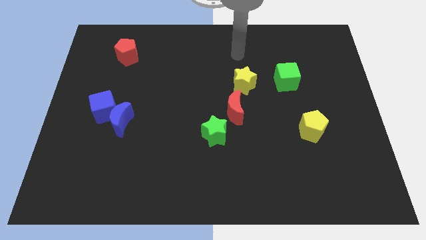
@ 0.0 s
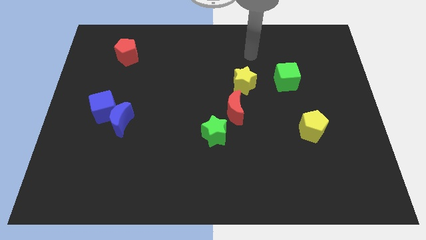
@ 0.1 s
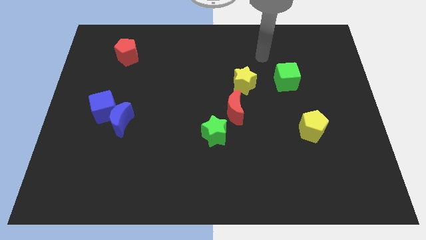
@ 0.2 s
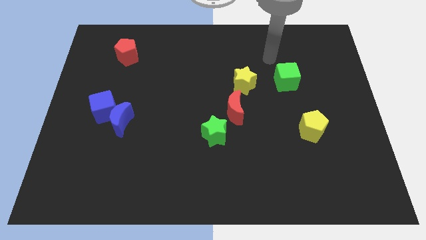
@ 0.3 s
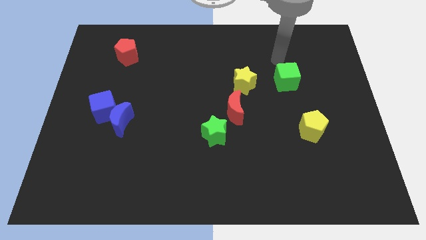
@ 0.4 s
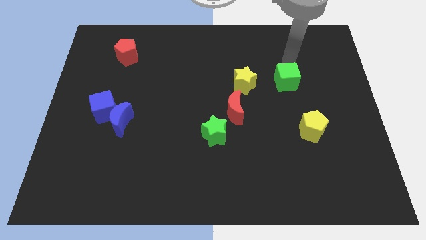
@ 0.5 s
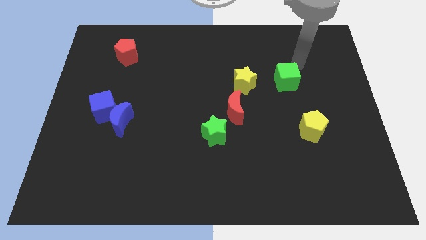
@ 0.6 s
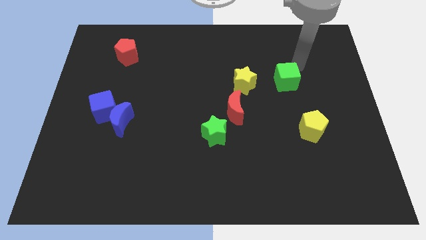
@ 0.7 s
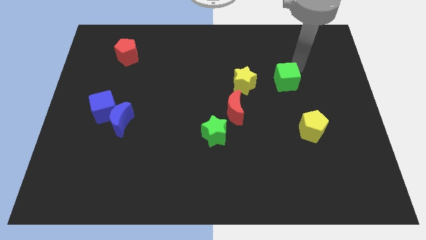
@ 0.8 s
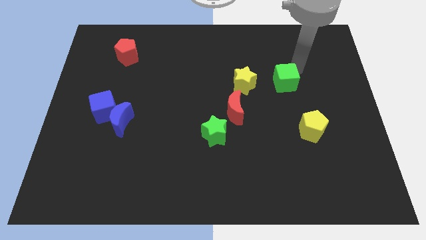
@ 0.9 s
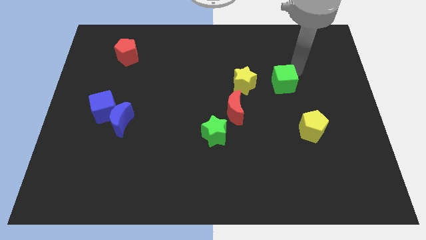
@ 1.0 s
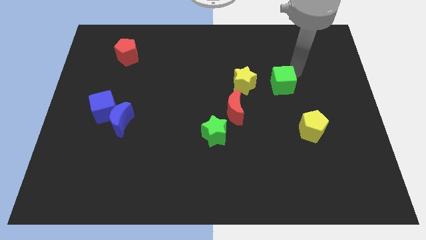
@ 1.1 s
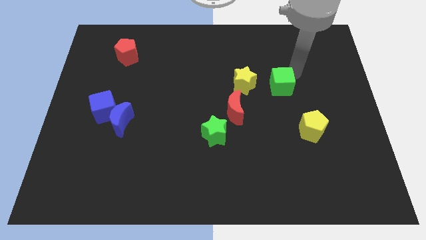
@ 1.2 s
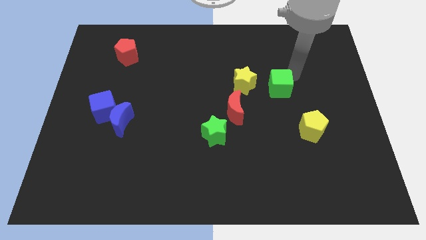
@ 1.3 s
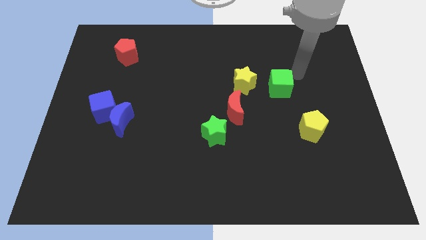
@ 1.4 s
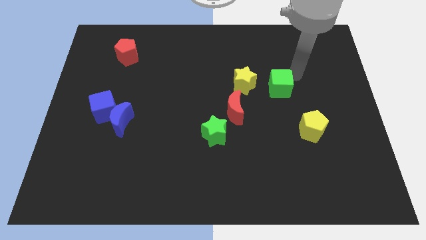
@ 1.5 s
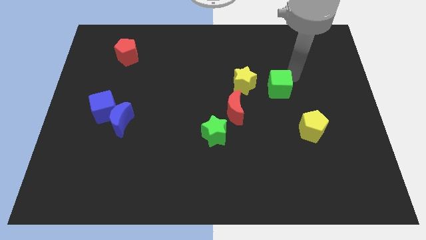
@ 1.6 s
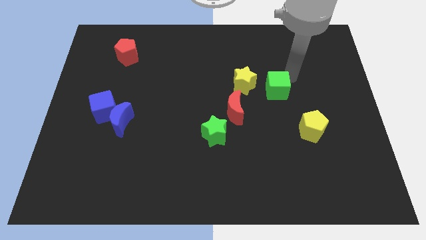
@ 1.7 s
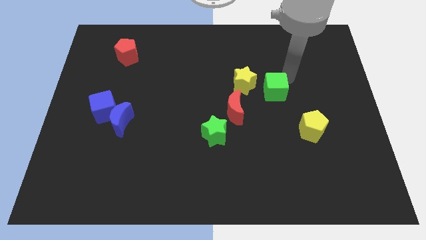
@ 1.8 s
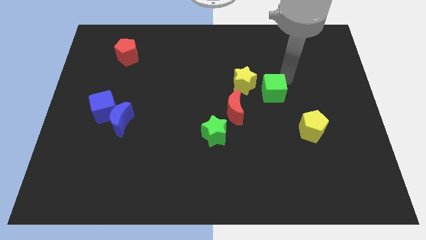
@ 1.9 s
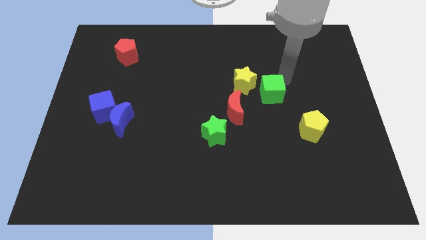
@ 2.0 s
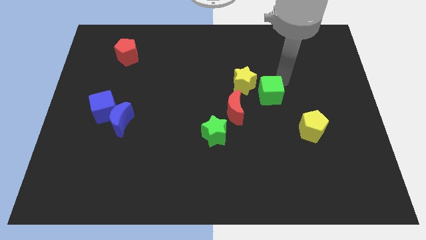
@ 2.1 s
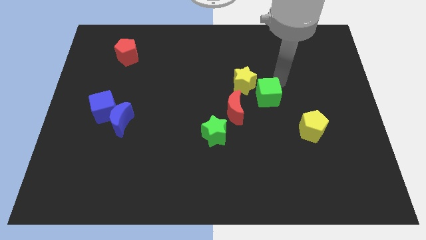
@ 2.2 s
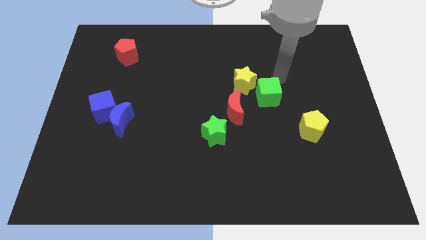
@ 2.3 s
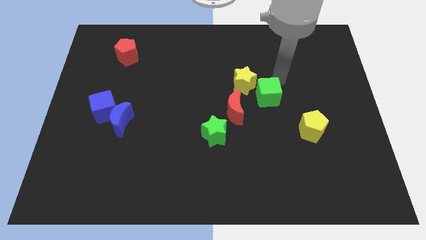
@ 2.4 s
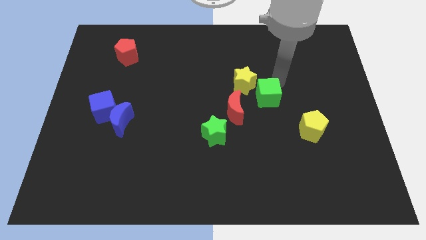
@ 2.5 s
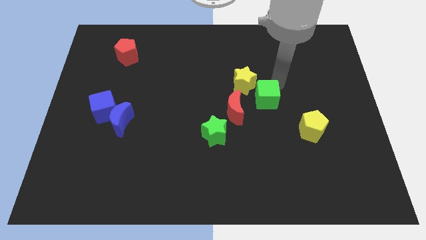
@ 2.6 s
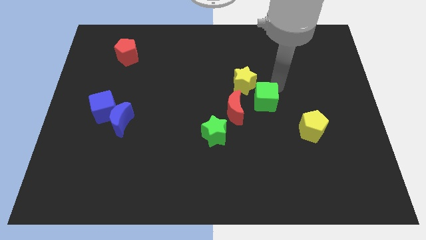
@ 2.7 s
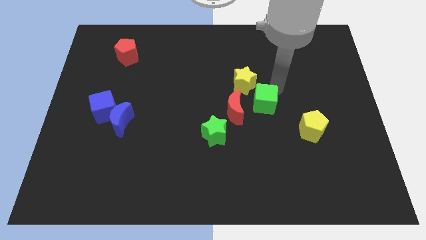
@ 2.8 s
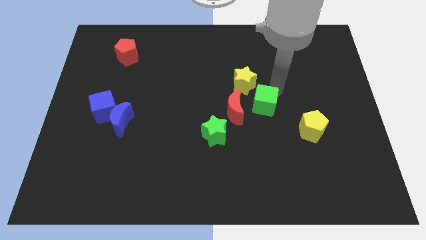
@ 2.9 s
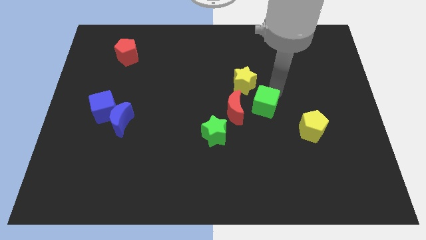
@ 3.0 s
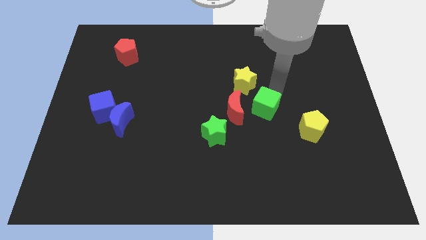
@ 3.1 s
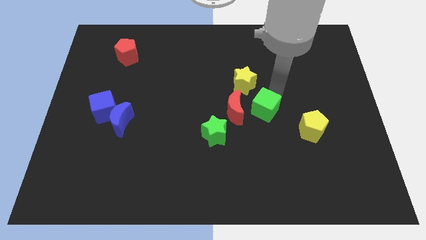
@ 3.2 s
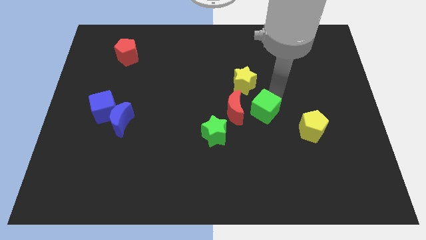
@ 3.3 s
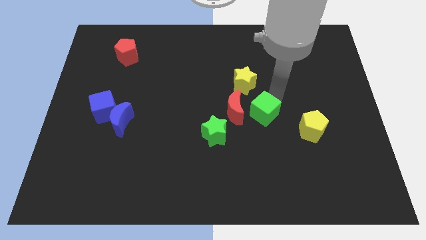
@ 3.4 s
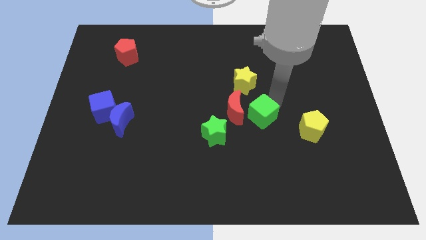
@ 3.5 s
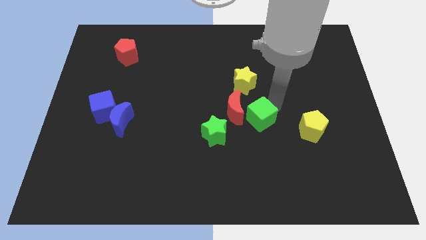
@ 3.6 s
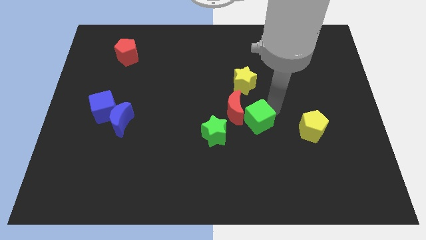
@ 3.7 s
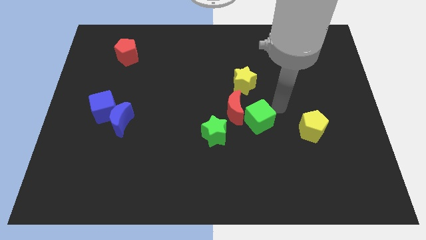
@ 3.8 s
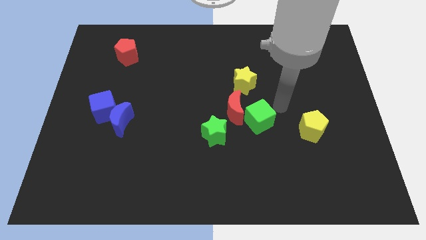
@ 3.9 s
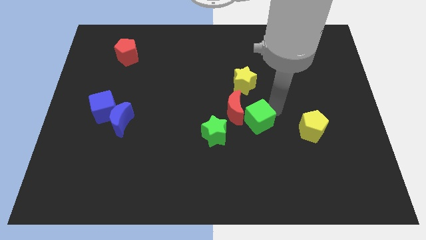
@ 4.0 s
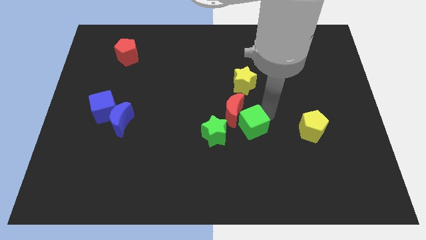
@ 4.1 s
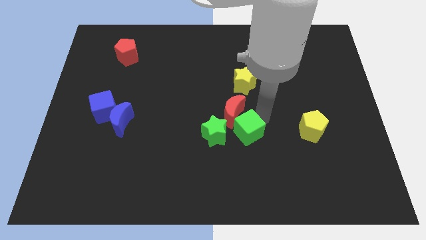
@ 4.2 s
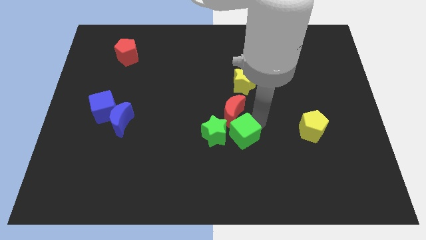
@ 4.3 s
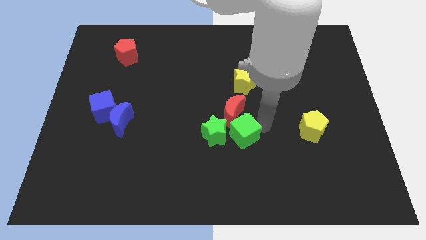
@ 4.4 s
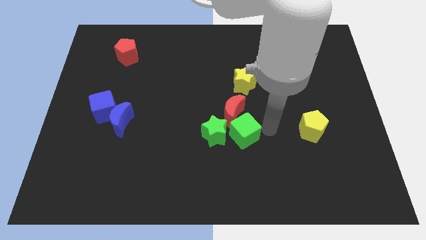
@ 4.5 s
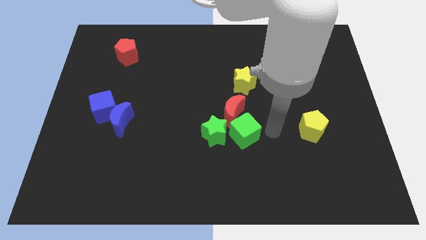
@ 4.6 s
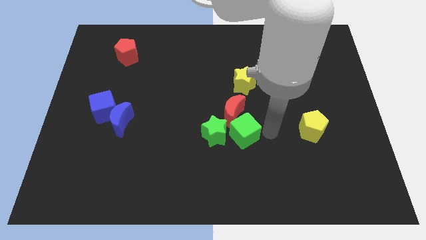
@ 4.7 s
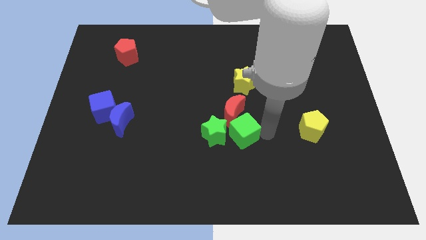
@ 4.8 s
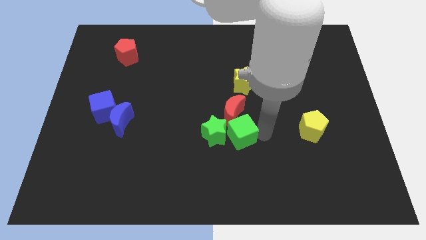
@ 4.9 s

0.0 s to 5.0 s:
slide the green cube towards the green star

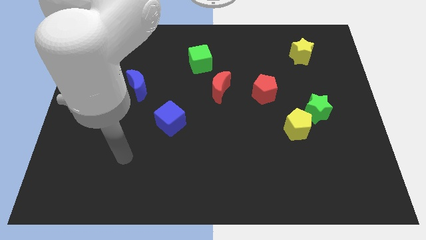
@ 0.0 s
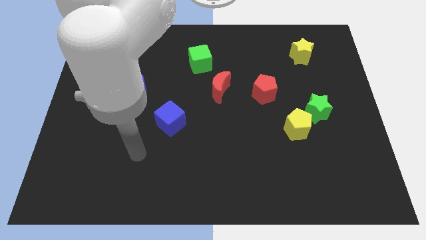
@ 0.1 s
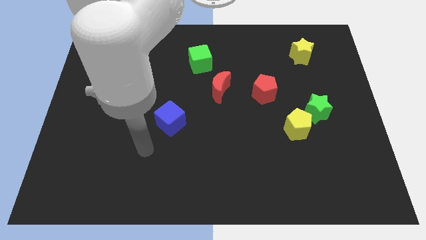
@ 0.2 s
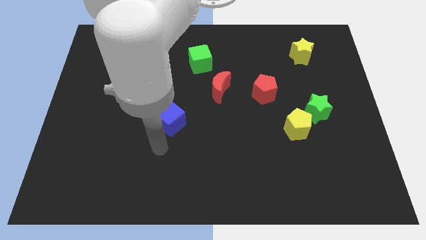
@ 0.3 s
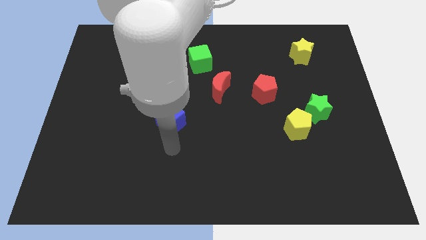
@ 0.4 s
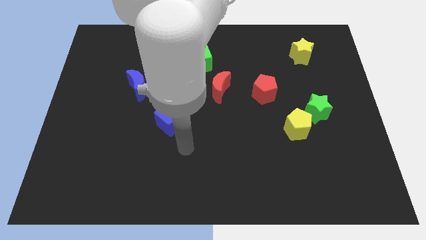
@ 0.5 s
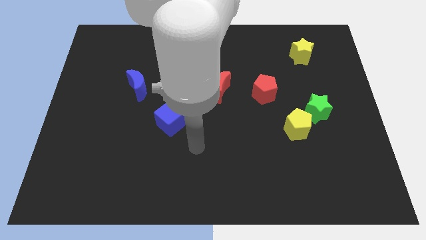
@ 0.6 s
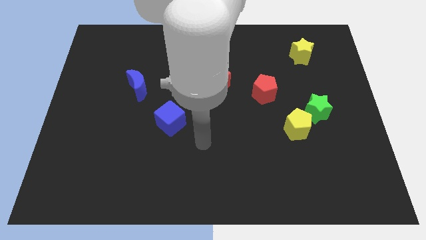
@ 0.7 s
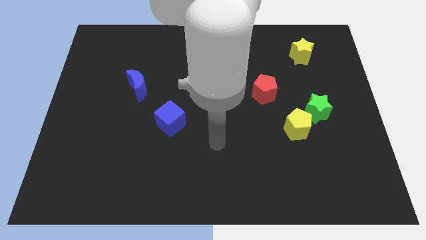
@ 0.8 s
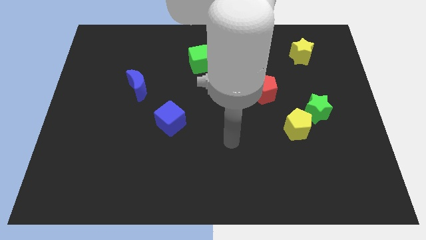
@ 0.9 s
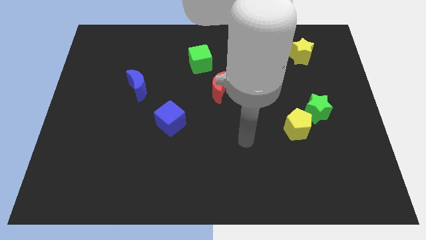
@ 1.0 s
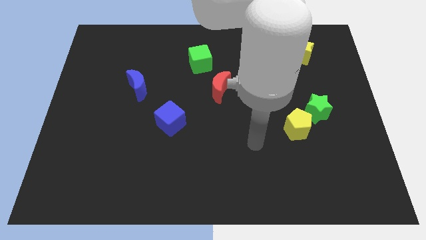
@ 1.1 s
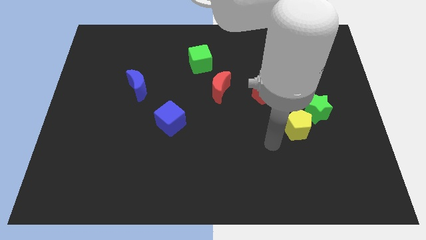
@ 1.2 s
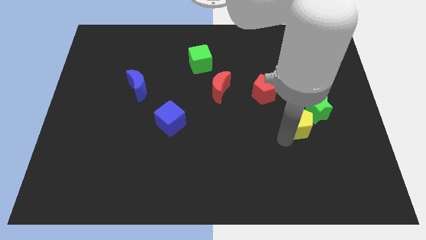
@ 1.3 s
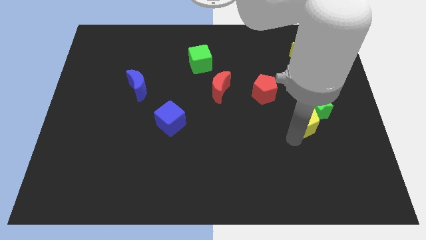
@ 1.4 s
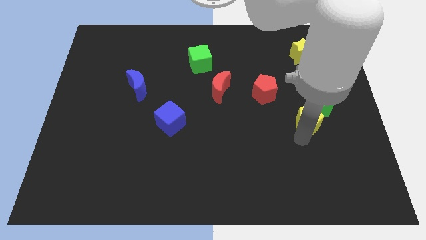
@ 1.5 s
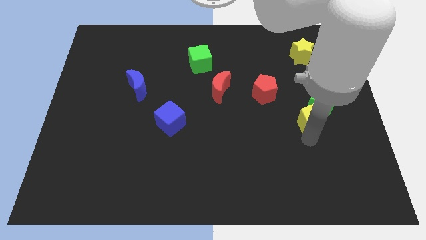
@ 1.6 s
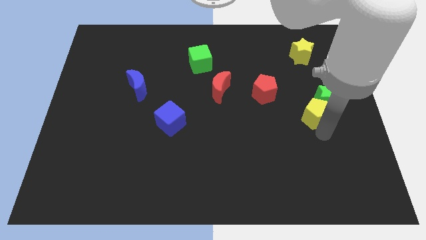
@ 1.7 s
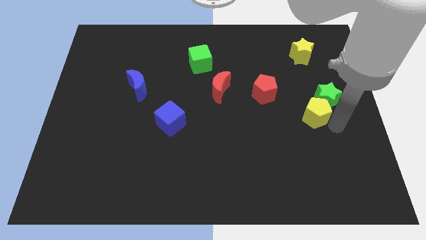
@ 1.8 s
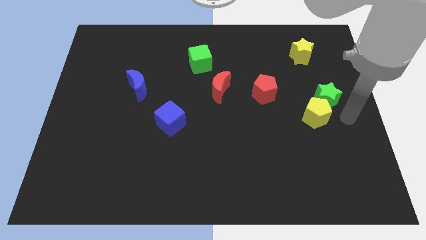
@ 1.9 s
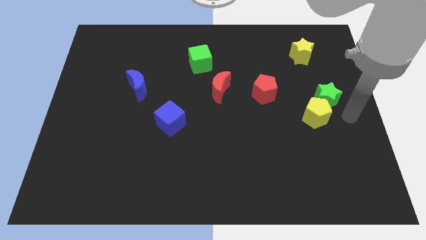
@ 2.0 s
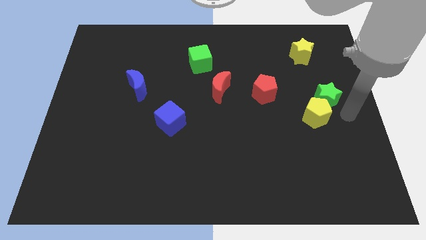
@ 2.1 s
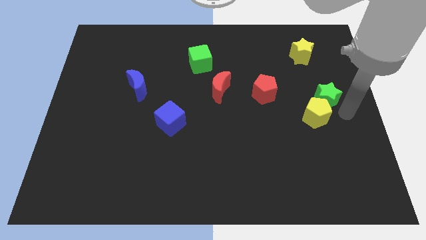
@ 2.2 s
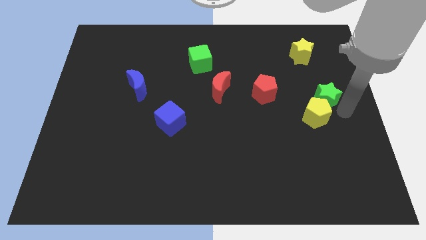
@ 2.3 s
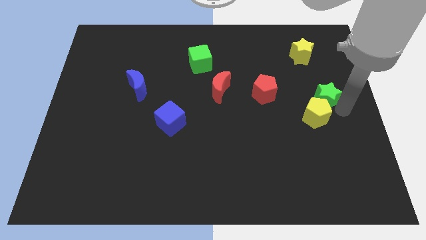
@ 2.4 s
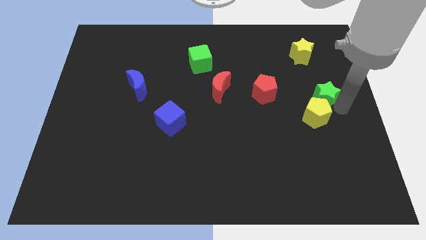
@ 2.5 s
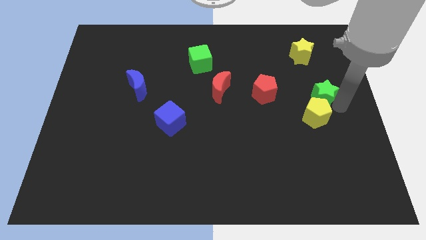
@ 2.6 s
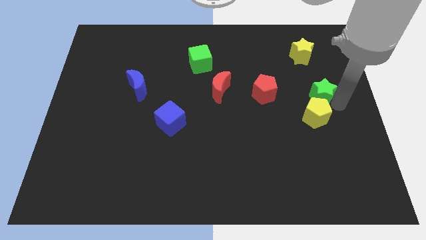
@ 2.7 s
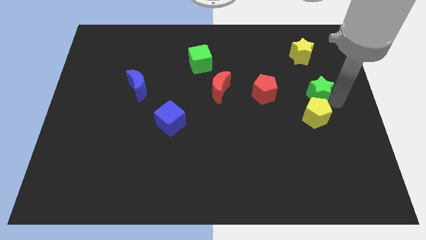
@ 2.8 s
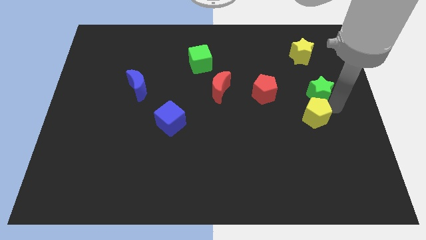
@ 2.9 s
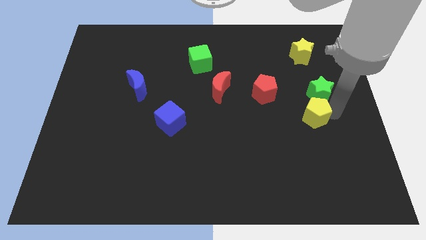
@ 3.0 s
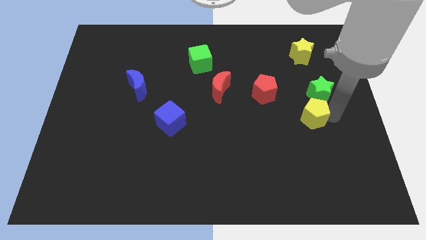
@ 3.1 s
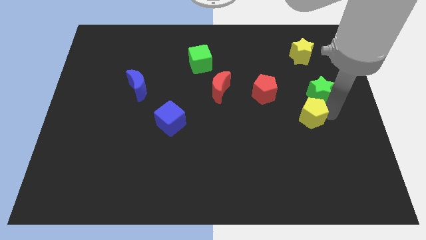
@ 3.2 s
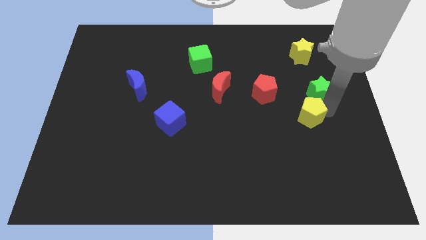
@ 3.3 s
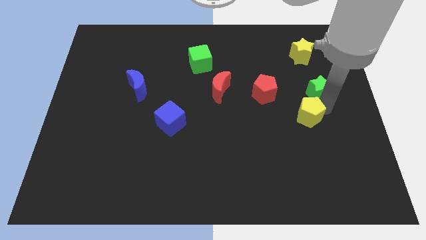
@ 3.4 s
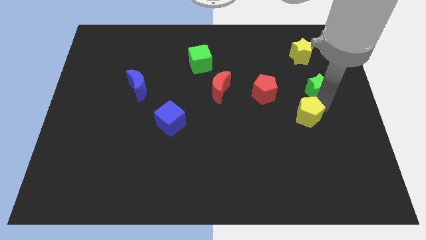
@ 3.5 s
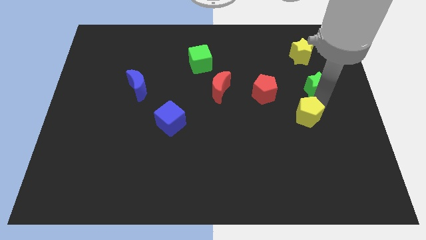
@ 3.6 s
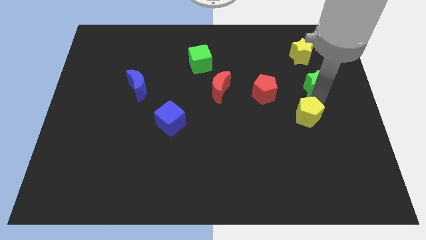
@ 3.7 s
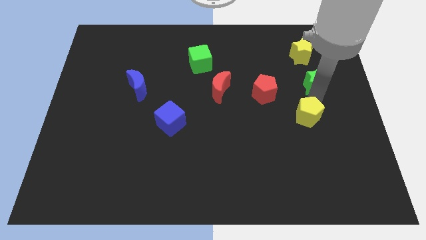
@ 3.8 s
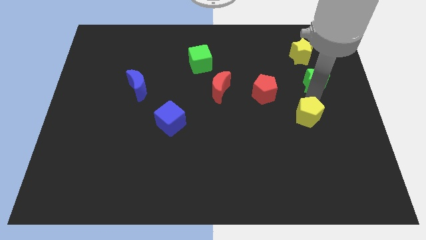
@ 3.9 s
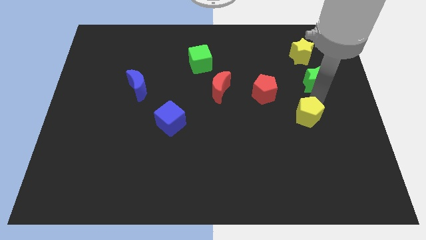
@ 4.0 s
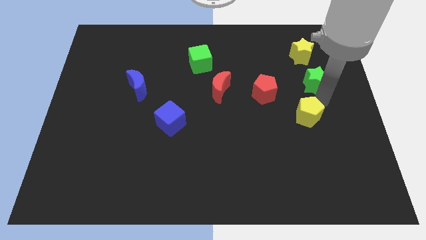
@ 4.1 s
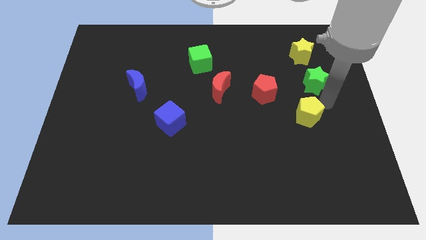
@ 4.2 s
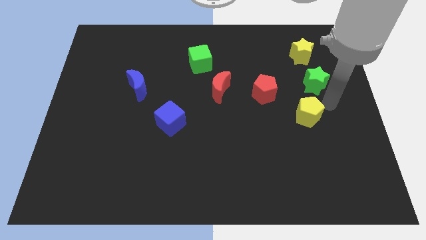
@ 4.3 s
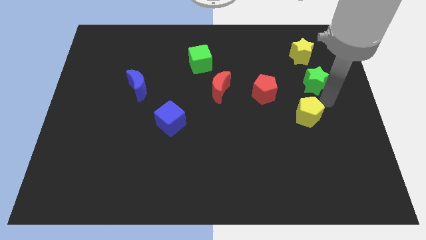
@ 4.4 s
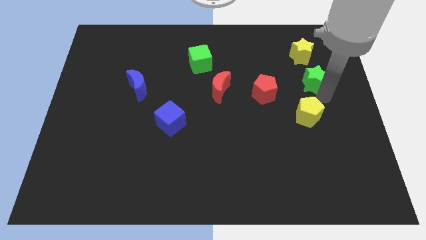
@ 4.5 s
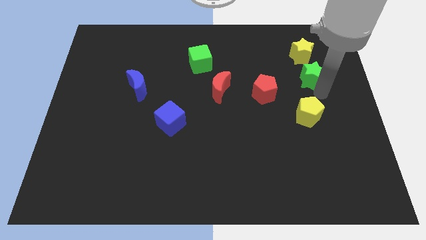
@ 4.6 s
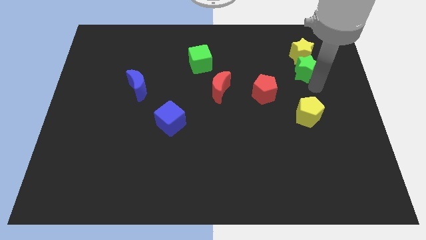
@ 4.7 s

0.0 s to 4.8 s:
put the green star close to the yellow star
